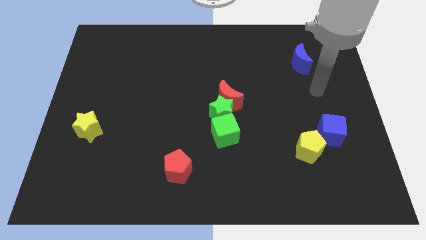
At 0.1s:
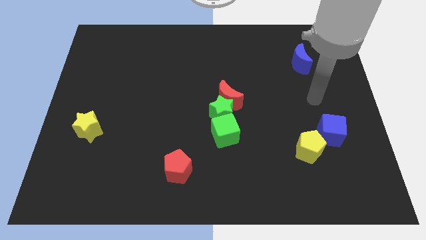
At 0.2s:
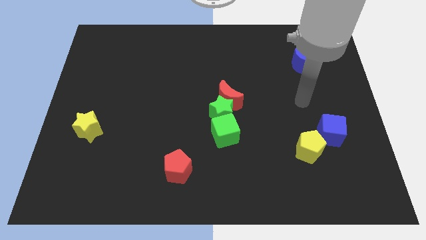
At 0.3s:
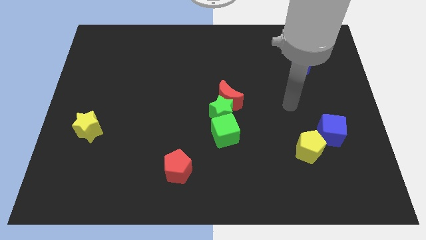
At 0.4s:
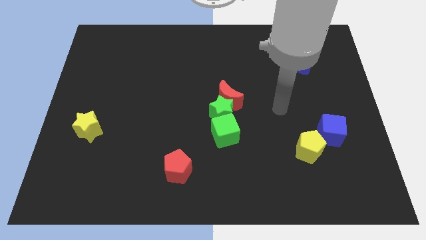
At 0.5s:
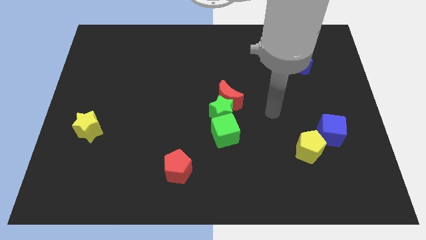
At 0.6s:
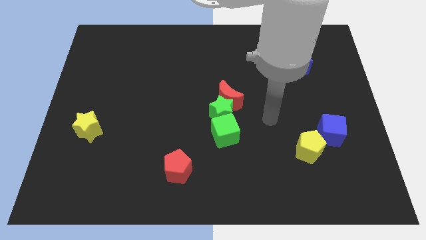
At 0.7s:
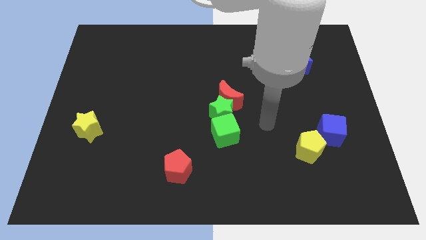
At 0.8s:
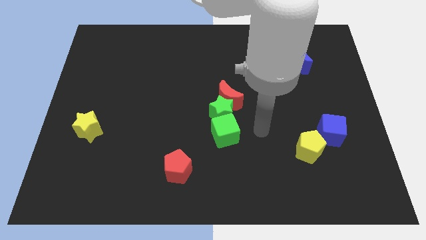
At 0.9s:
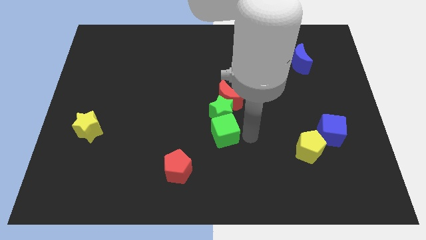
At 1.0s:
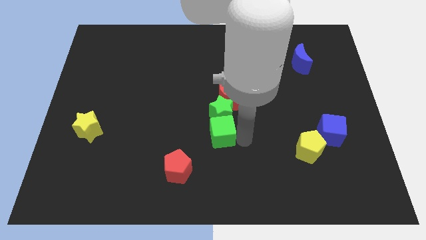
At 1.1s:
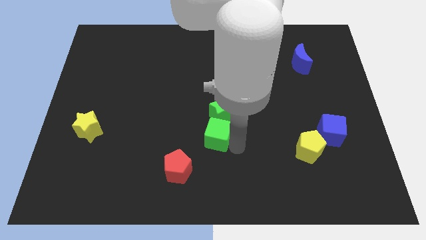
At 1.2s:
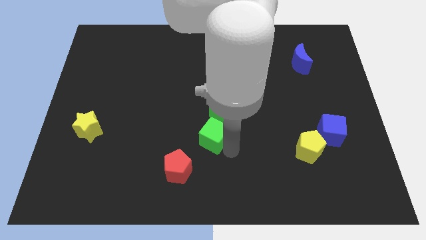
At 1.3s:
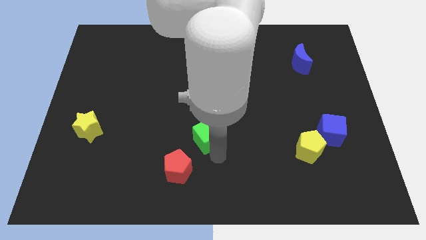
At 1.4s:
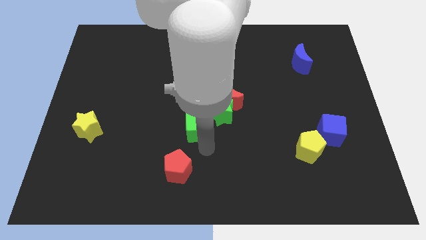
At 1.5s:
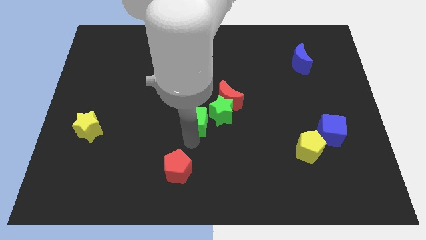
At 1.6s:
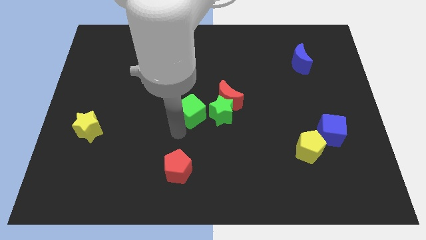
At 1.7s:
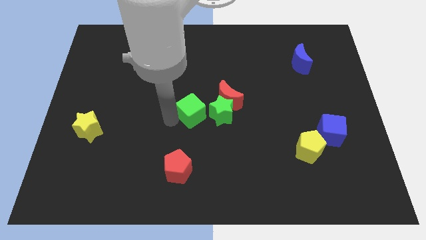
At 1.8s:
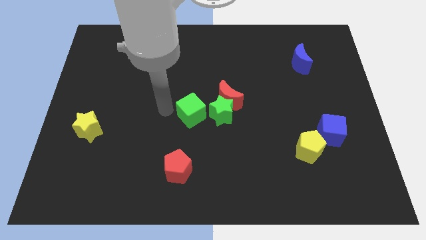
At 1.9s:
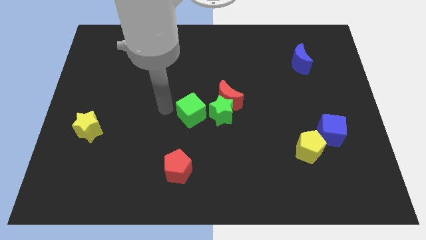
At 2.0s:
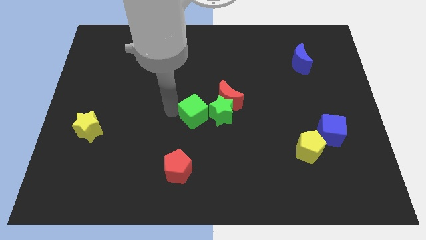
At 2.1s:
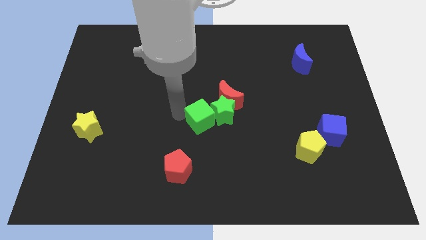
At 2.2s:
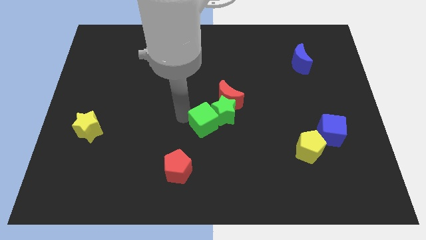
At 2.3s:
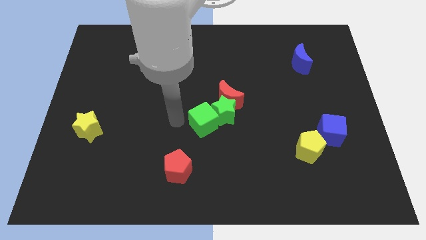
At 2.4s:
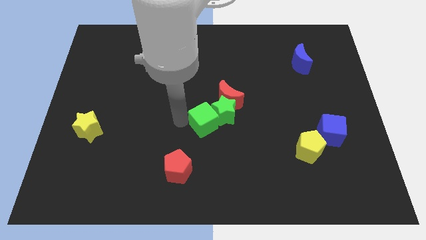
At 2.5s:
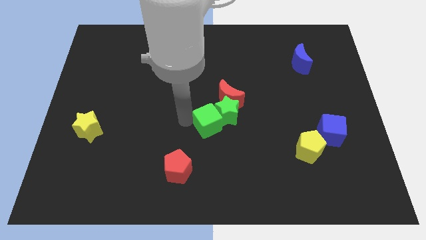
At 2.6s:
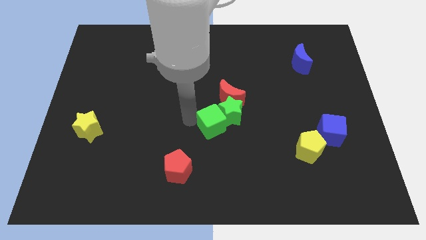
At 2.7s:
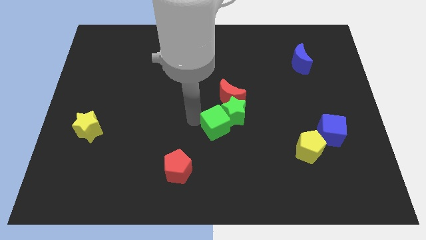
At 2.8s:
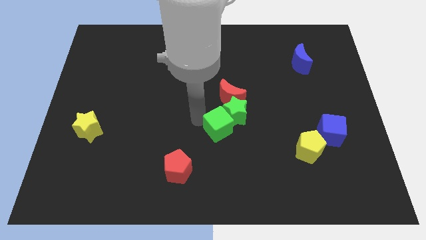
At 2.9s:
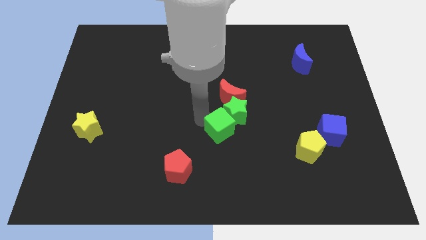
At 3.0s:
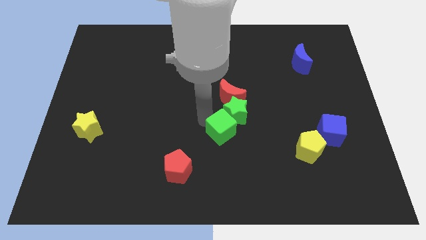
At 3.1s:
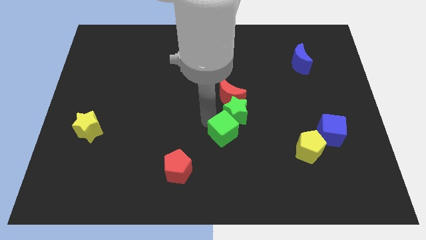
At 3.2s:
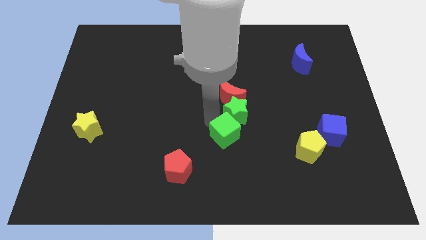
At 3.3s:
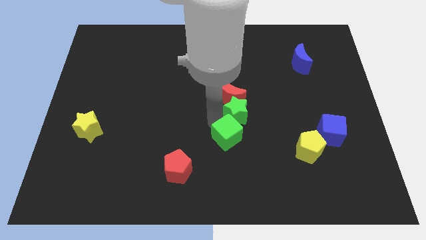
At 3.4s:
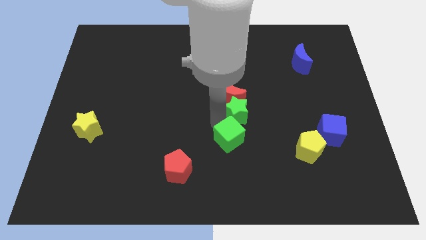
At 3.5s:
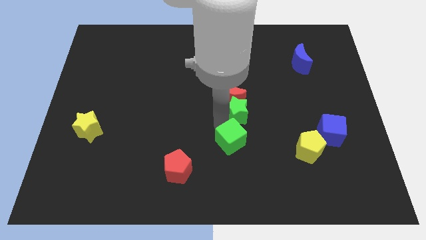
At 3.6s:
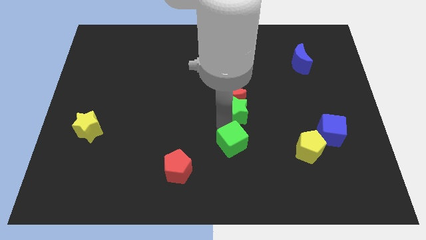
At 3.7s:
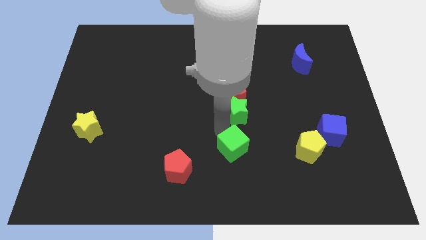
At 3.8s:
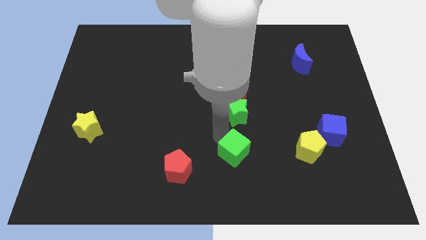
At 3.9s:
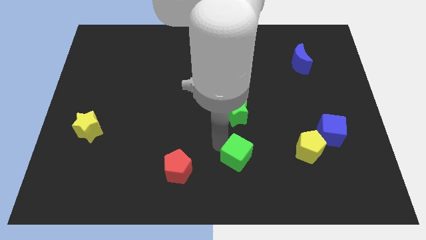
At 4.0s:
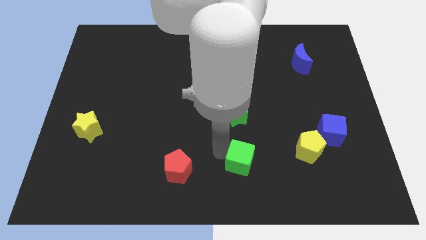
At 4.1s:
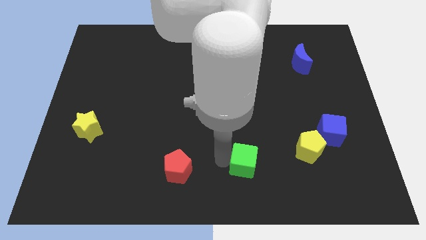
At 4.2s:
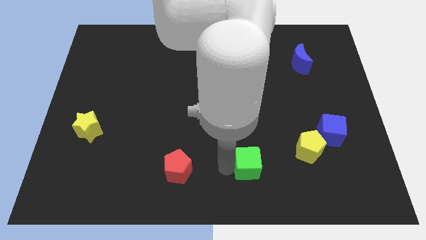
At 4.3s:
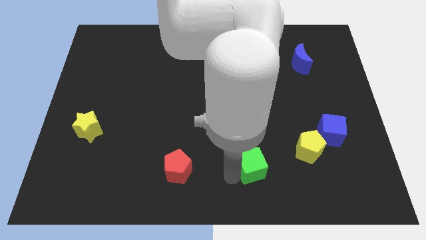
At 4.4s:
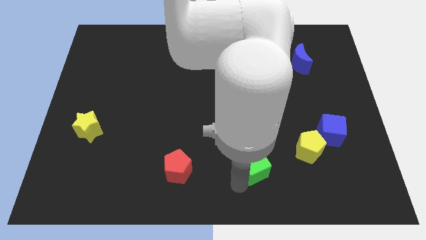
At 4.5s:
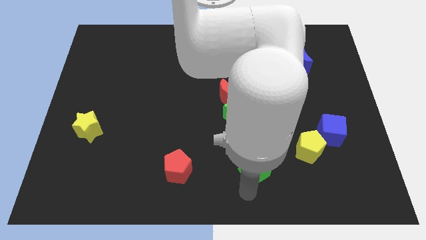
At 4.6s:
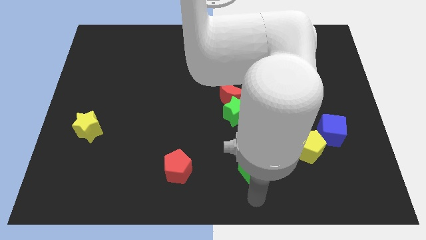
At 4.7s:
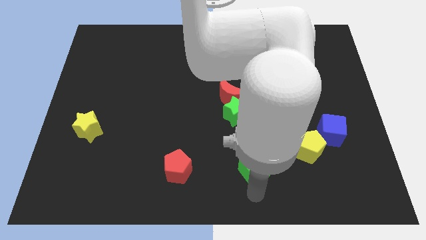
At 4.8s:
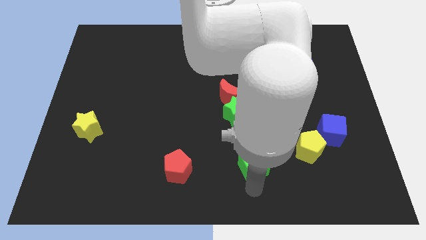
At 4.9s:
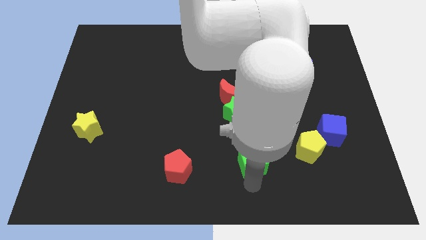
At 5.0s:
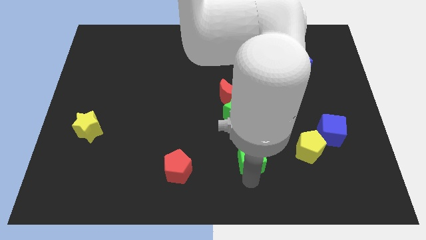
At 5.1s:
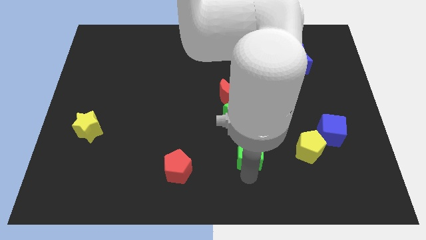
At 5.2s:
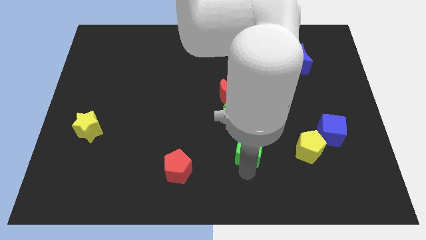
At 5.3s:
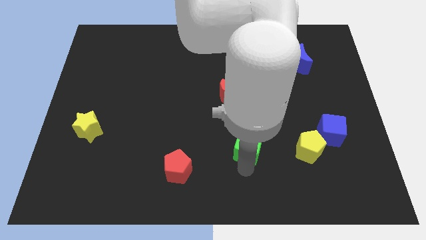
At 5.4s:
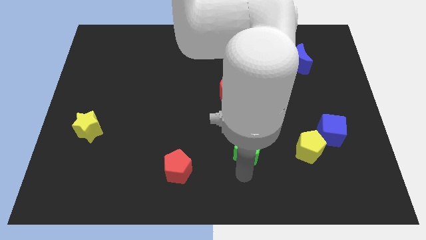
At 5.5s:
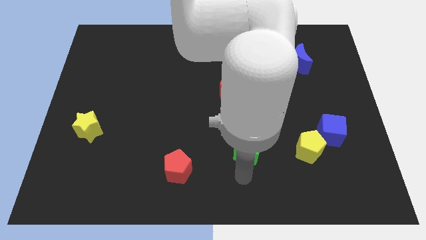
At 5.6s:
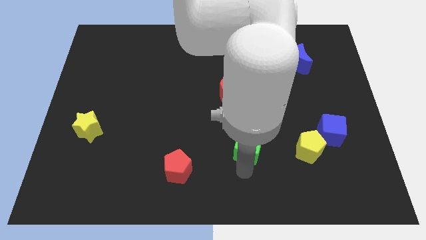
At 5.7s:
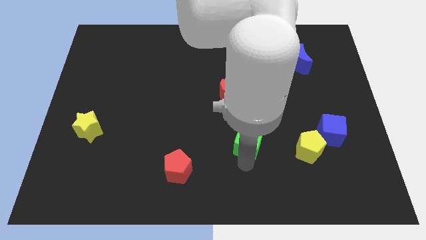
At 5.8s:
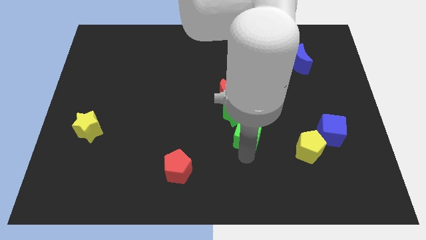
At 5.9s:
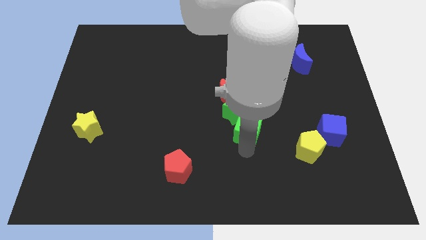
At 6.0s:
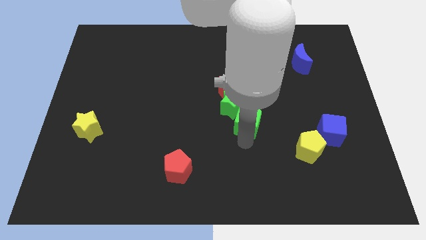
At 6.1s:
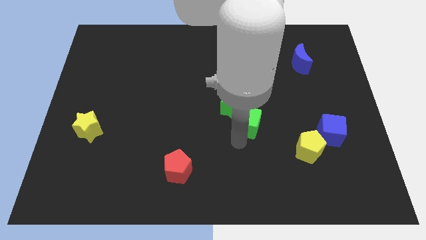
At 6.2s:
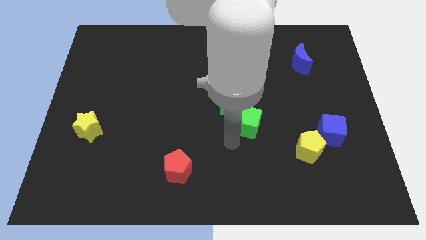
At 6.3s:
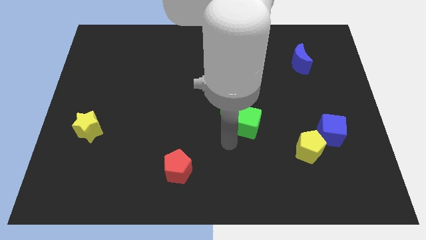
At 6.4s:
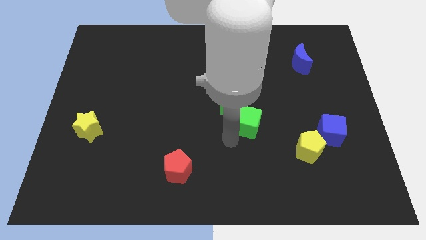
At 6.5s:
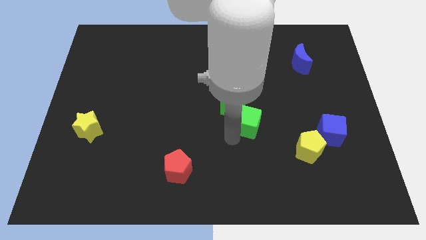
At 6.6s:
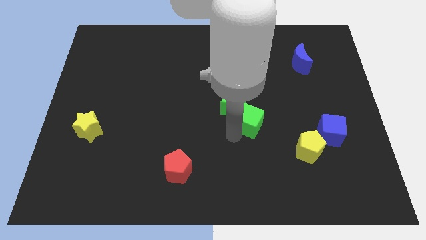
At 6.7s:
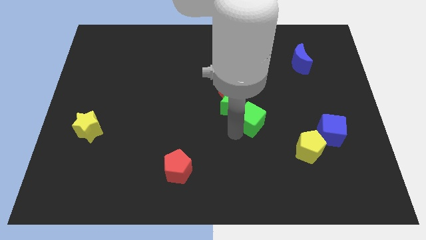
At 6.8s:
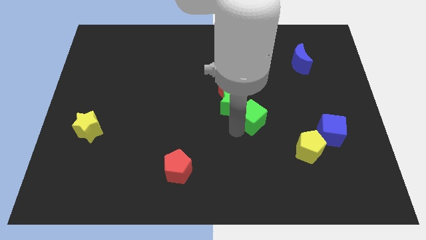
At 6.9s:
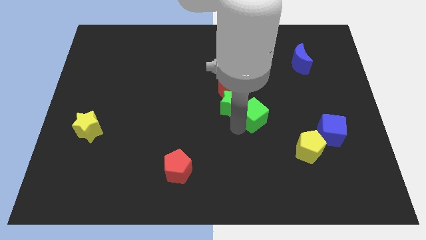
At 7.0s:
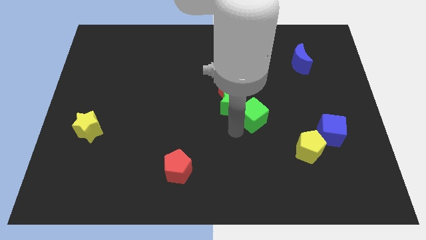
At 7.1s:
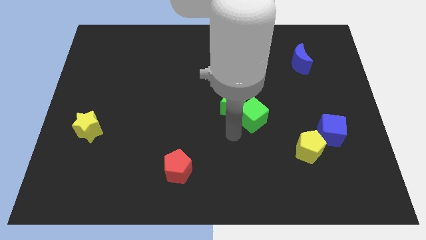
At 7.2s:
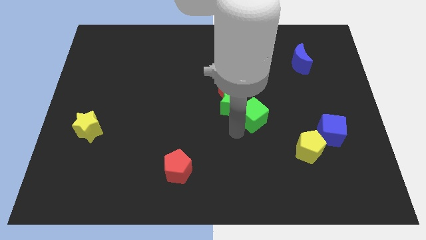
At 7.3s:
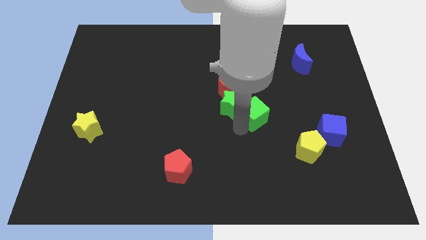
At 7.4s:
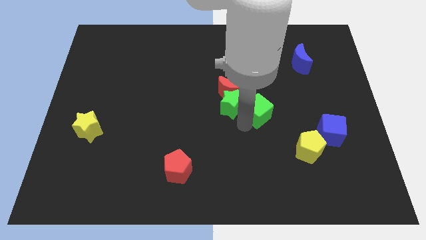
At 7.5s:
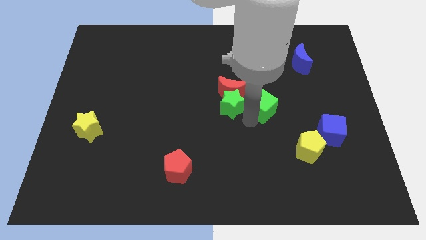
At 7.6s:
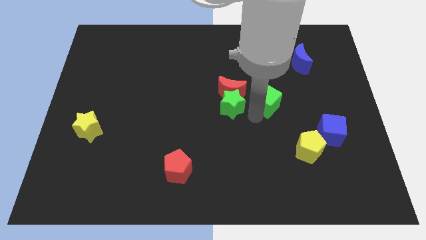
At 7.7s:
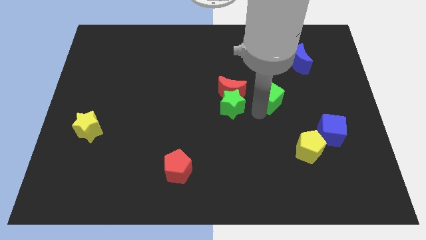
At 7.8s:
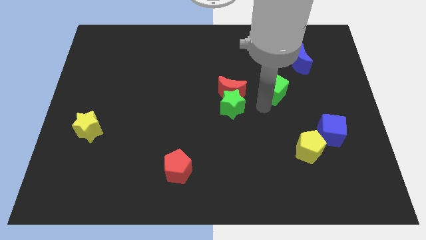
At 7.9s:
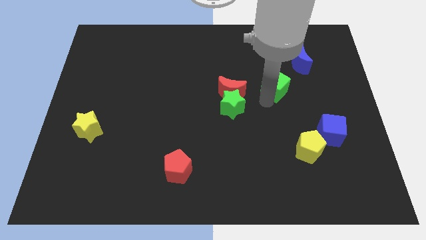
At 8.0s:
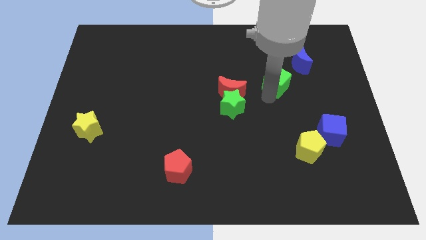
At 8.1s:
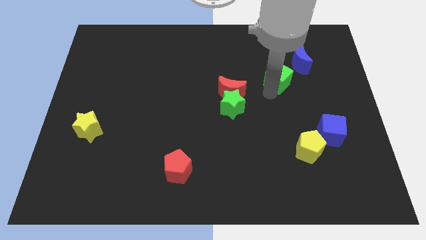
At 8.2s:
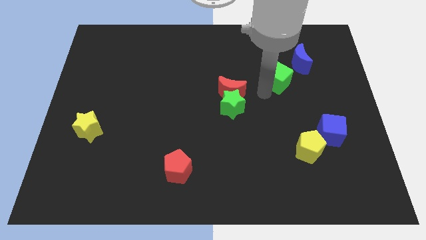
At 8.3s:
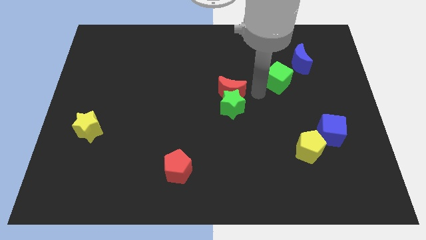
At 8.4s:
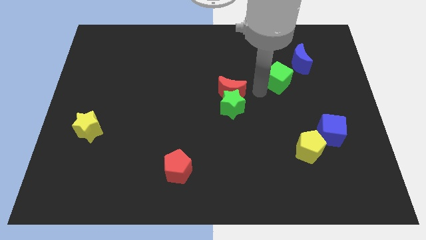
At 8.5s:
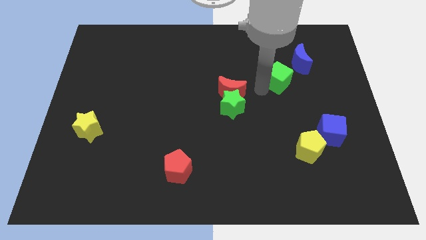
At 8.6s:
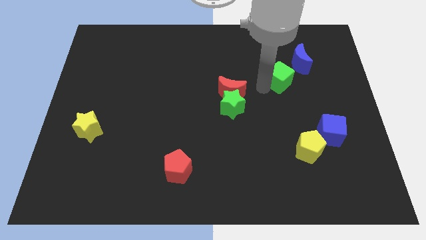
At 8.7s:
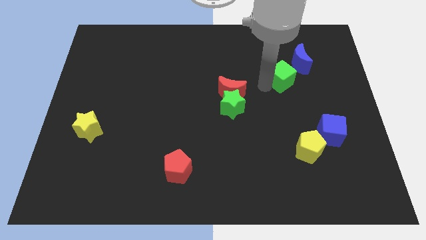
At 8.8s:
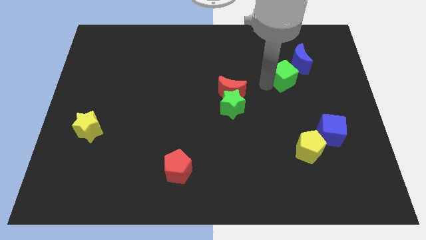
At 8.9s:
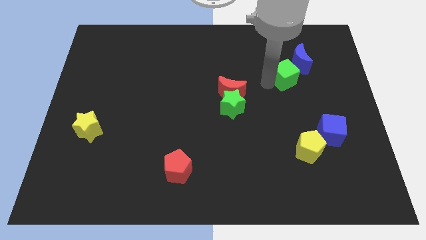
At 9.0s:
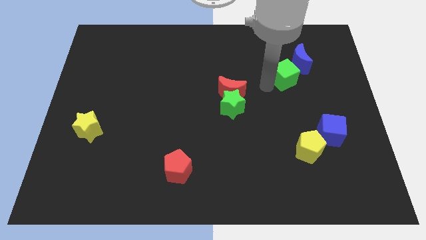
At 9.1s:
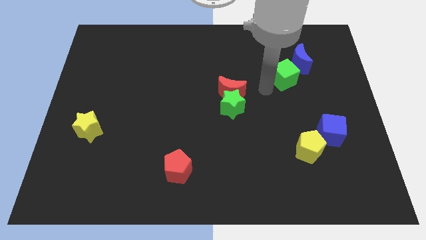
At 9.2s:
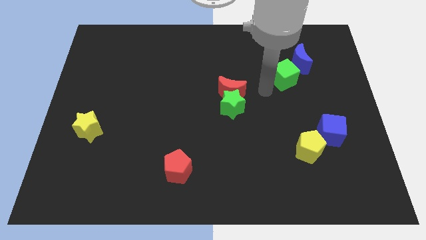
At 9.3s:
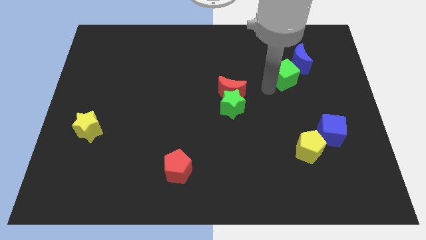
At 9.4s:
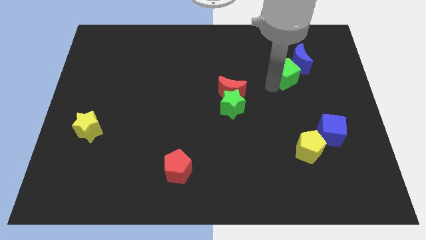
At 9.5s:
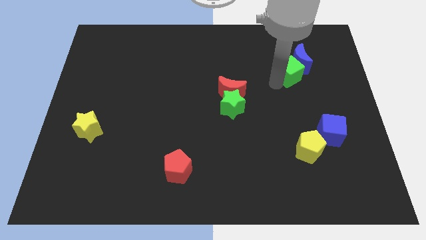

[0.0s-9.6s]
move the green cube next to the blue moon
